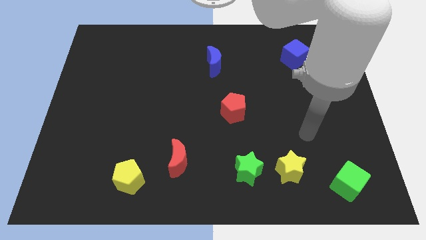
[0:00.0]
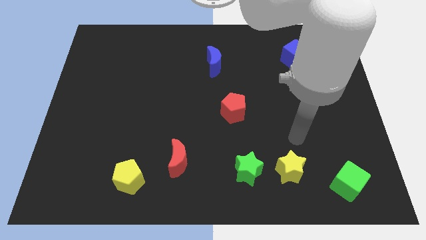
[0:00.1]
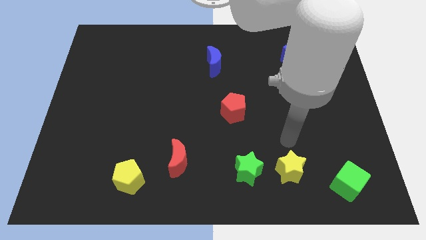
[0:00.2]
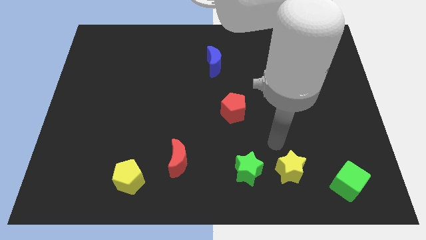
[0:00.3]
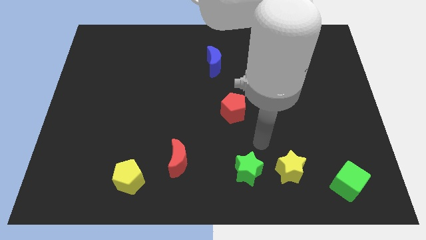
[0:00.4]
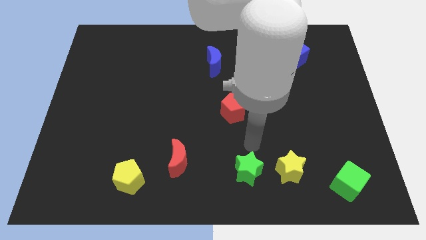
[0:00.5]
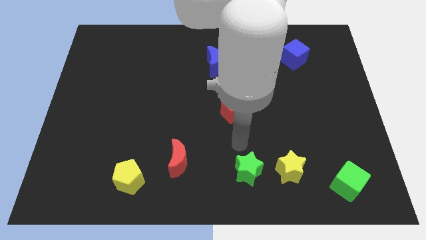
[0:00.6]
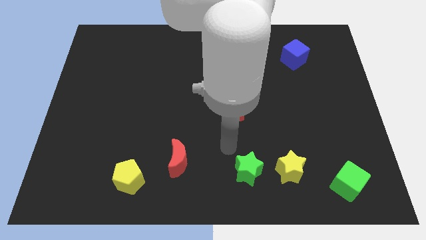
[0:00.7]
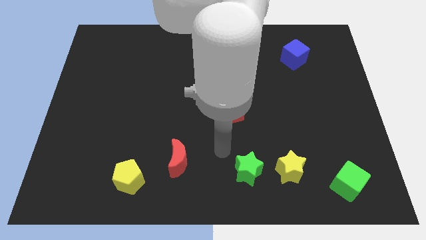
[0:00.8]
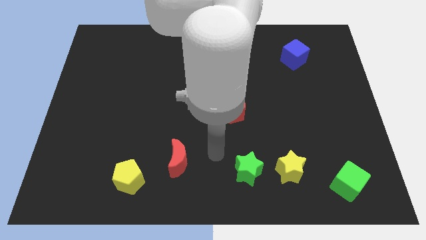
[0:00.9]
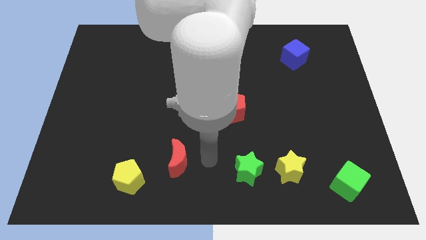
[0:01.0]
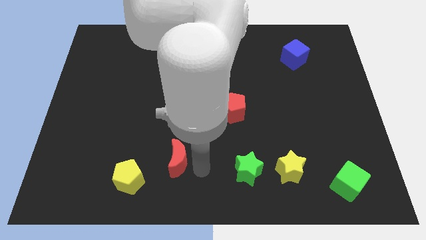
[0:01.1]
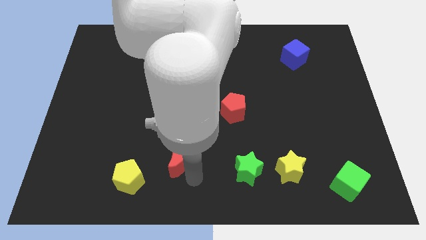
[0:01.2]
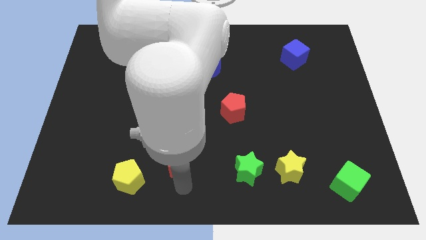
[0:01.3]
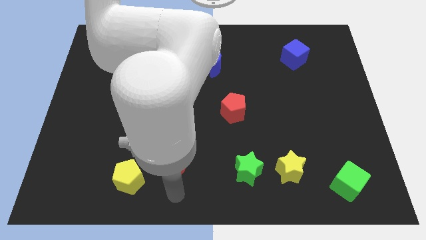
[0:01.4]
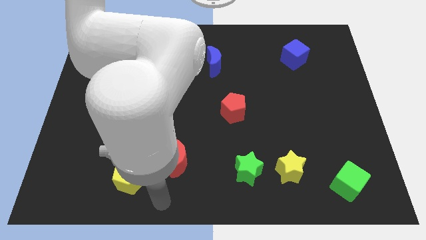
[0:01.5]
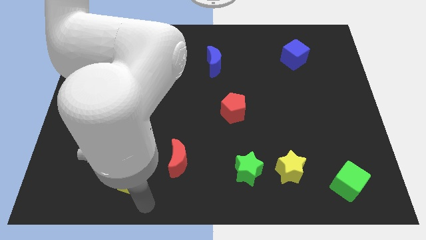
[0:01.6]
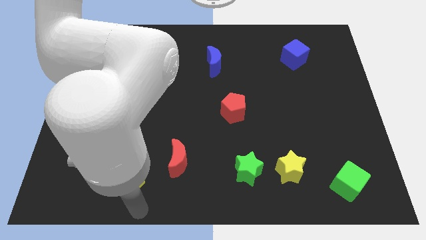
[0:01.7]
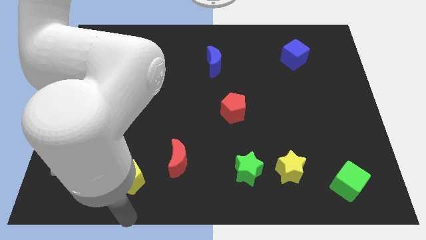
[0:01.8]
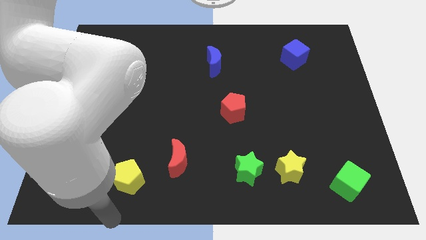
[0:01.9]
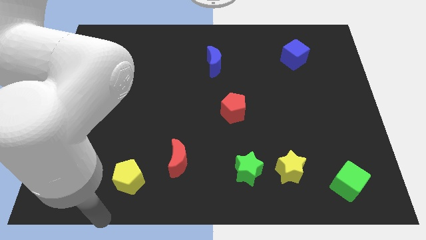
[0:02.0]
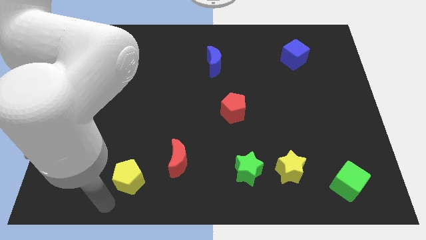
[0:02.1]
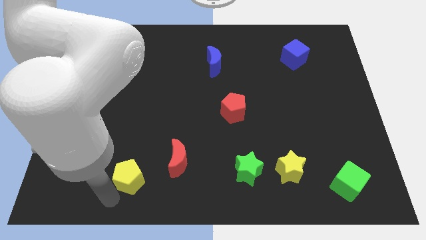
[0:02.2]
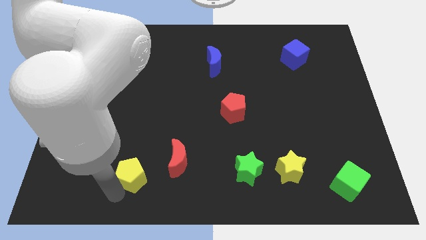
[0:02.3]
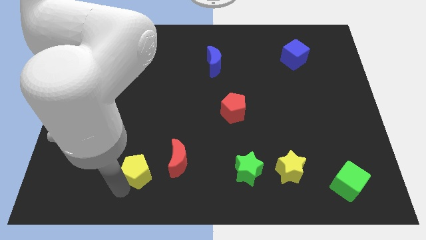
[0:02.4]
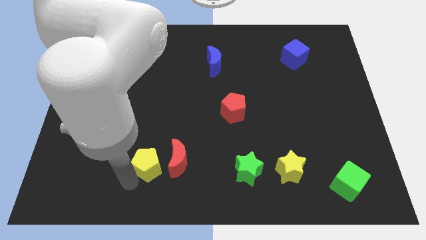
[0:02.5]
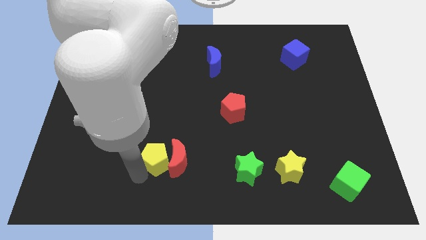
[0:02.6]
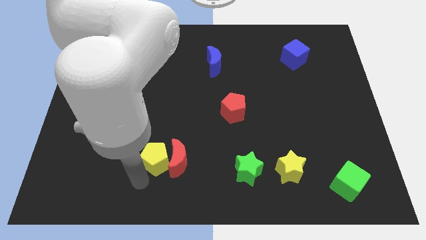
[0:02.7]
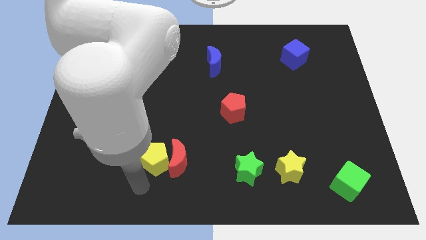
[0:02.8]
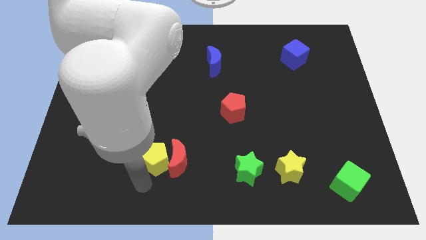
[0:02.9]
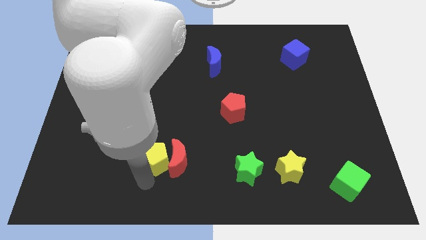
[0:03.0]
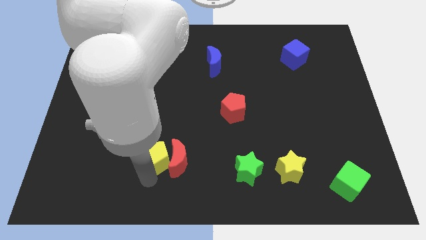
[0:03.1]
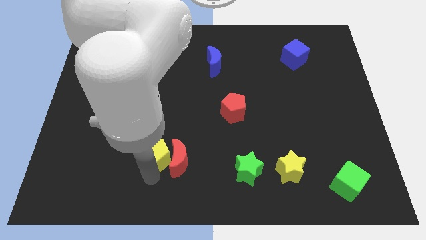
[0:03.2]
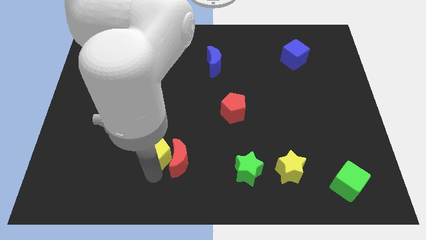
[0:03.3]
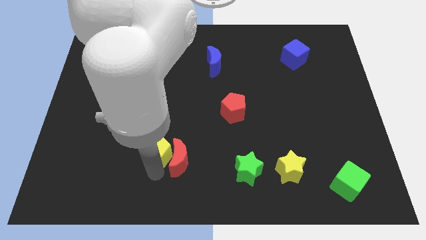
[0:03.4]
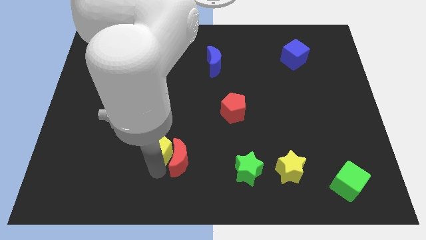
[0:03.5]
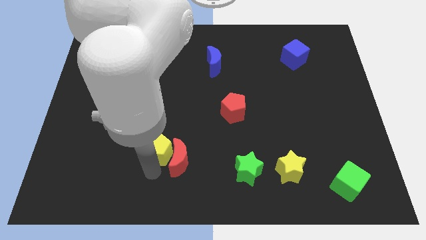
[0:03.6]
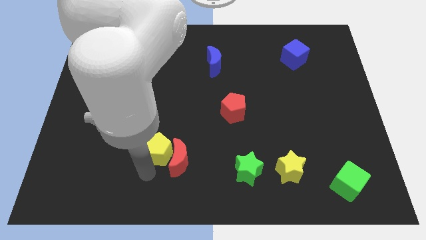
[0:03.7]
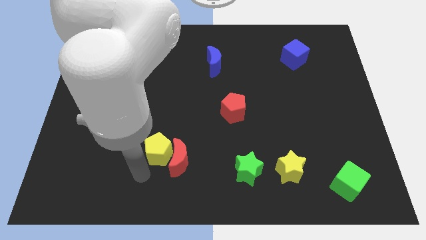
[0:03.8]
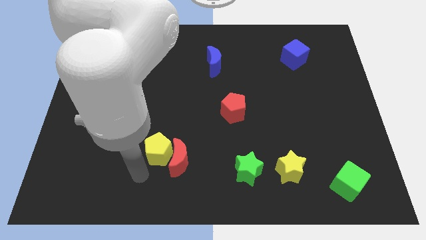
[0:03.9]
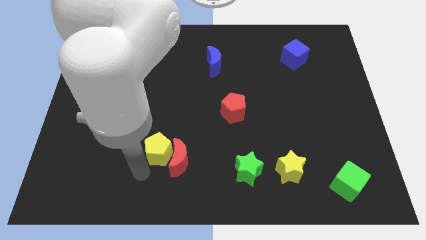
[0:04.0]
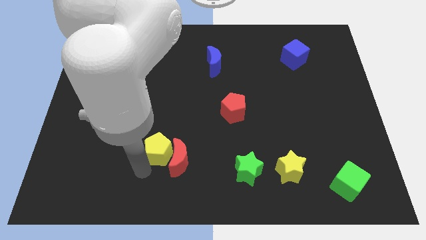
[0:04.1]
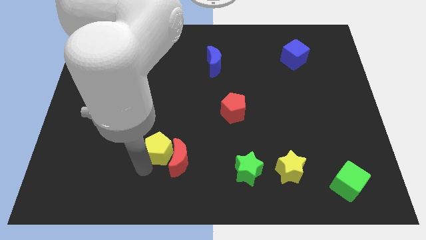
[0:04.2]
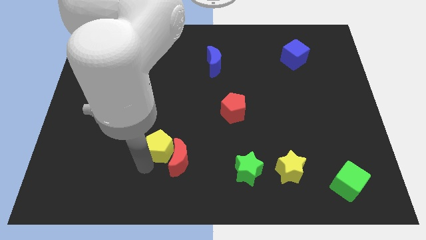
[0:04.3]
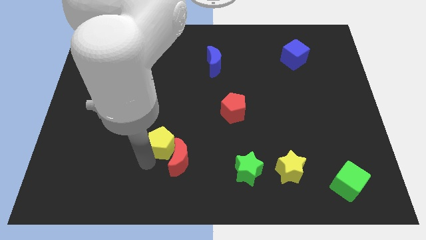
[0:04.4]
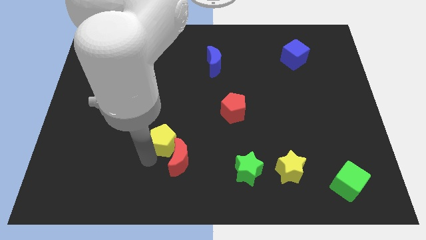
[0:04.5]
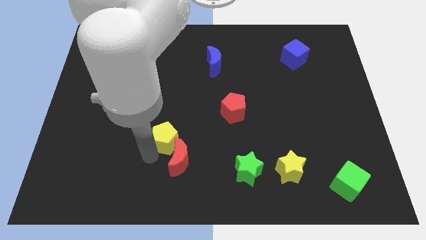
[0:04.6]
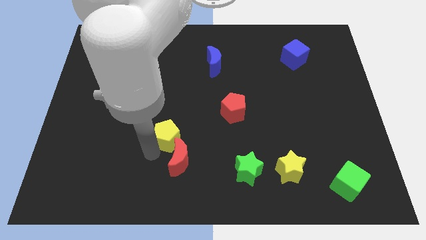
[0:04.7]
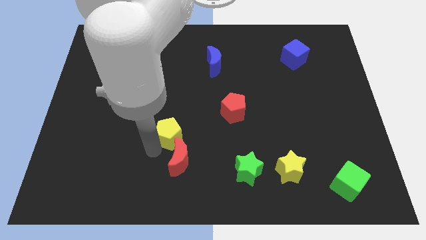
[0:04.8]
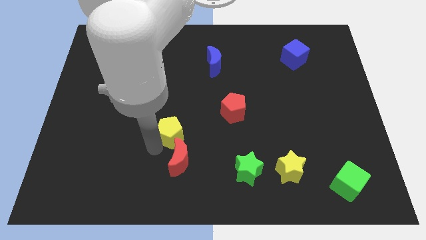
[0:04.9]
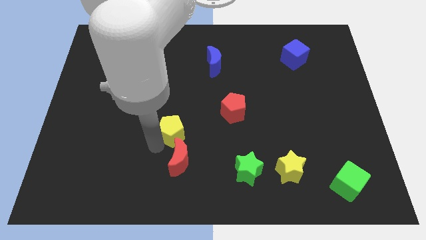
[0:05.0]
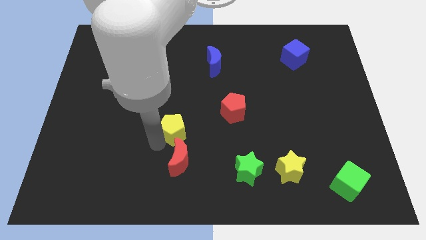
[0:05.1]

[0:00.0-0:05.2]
slide the yellow pentagon to the center of the board
